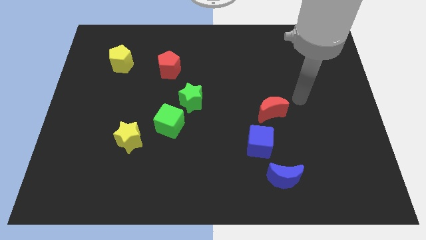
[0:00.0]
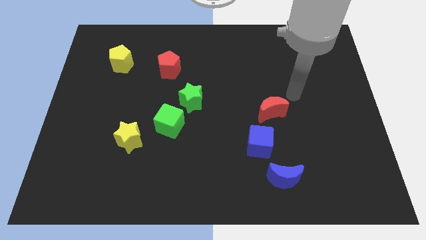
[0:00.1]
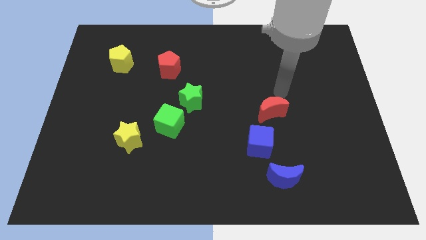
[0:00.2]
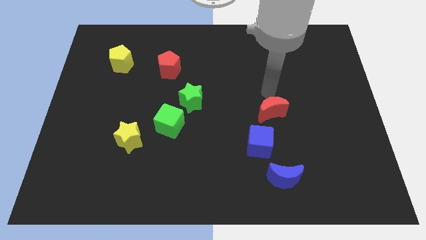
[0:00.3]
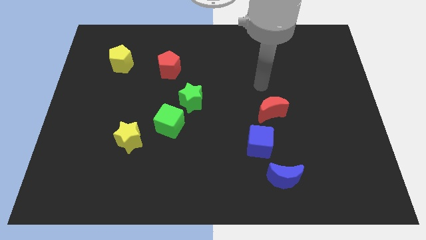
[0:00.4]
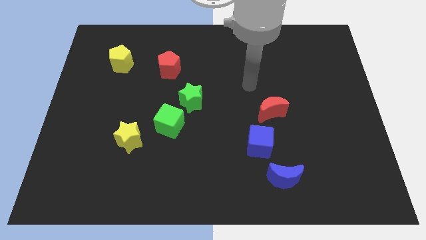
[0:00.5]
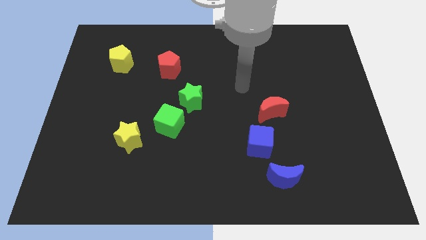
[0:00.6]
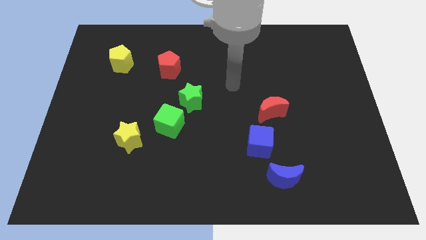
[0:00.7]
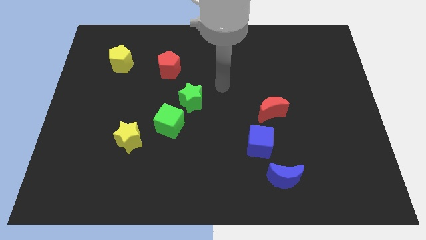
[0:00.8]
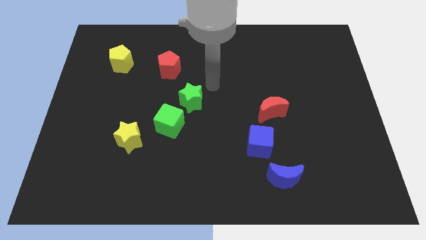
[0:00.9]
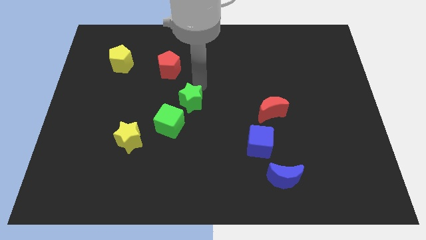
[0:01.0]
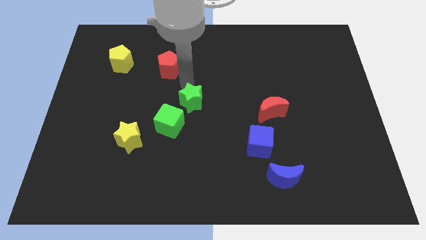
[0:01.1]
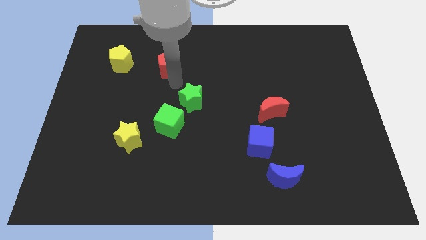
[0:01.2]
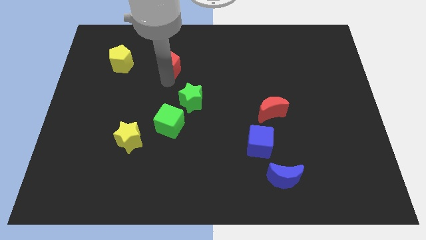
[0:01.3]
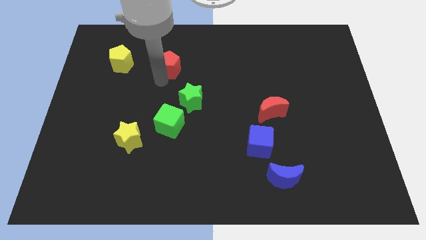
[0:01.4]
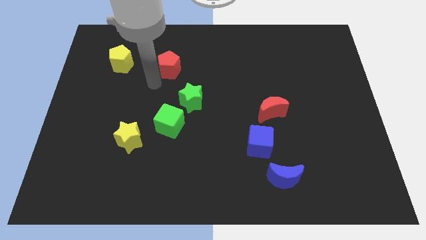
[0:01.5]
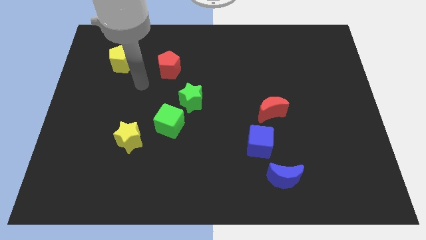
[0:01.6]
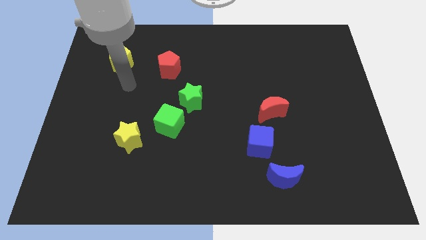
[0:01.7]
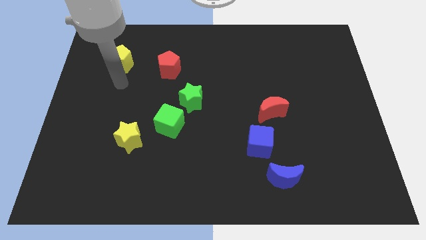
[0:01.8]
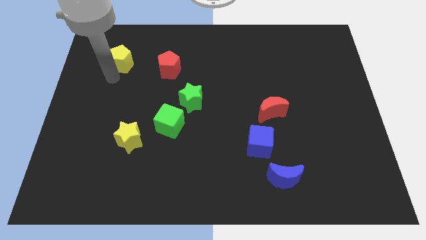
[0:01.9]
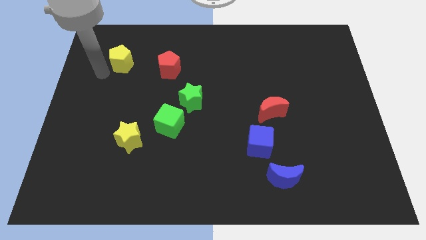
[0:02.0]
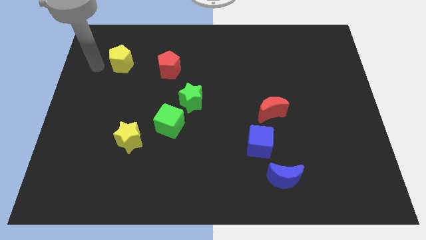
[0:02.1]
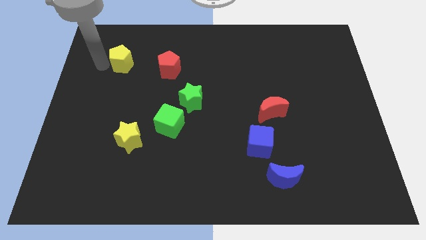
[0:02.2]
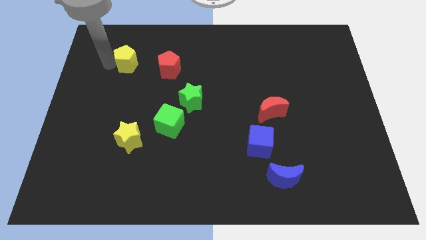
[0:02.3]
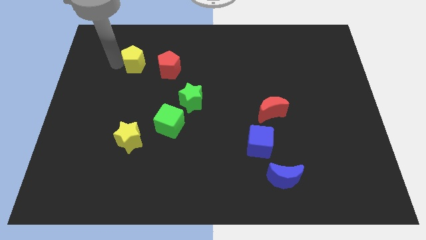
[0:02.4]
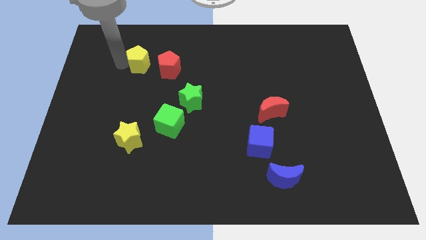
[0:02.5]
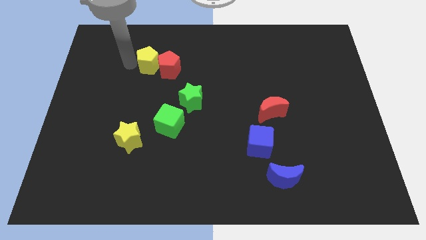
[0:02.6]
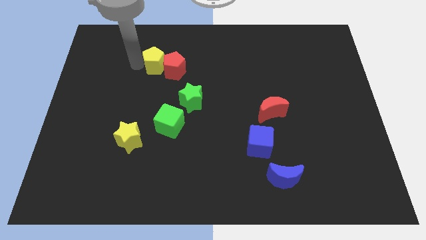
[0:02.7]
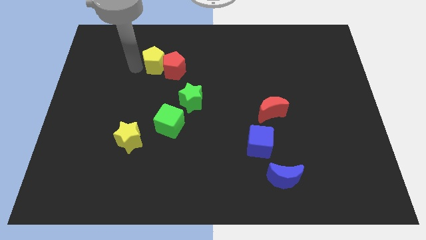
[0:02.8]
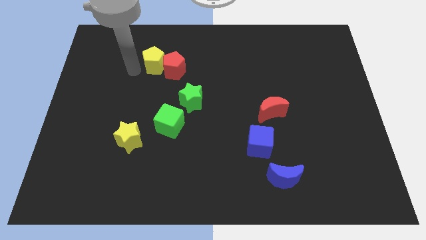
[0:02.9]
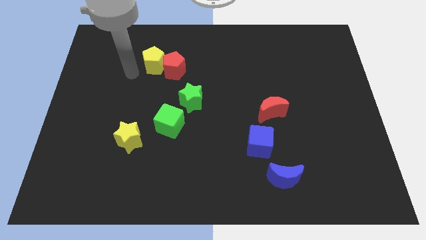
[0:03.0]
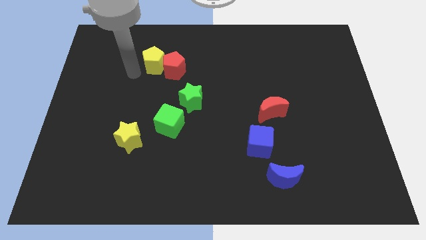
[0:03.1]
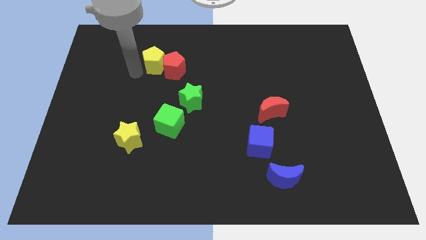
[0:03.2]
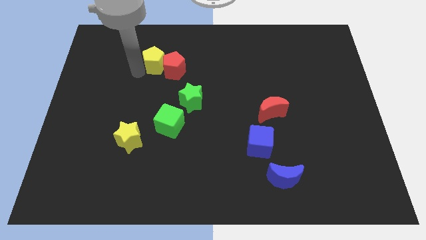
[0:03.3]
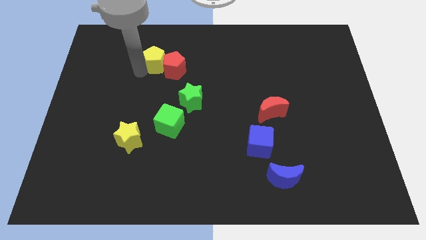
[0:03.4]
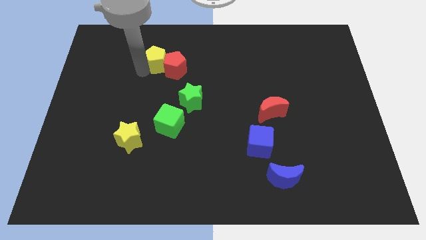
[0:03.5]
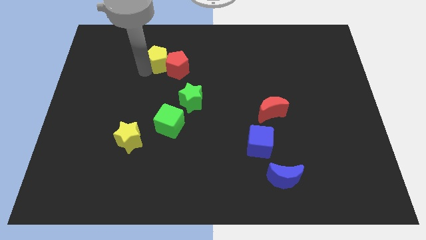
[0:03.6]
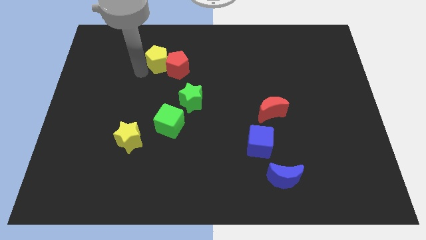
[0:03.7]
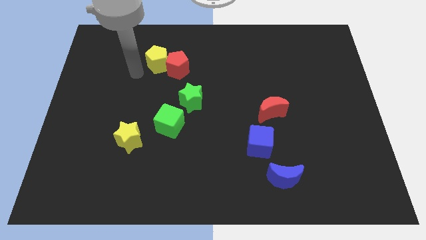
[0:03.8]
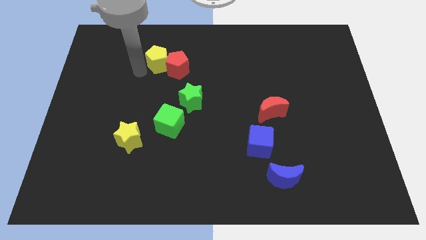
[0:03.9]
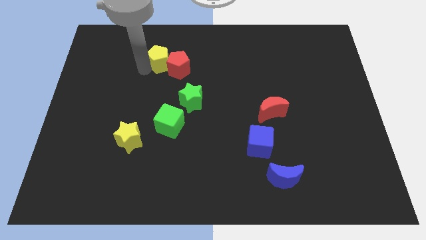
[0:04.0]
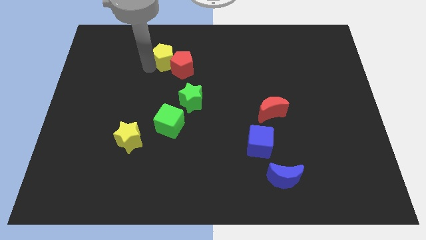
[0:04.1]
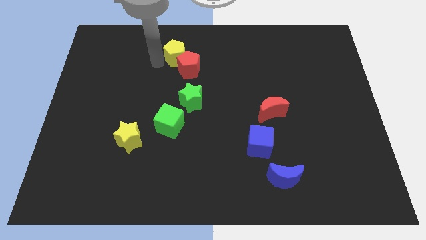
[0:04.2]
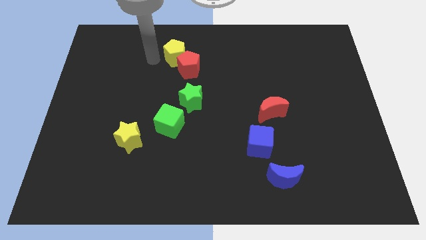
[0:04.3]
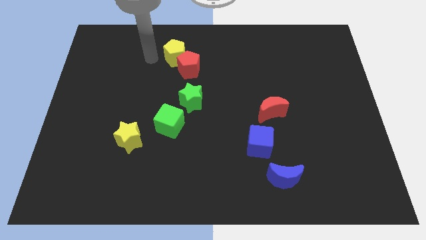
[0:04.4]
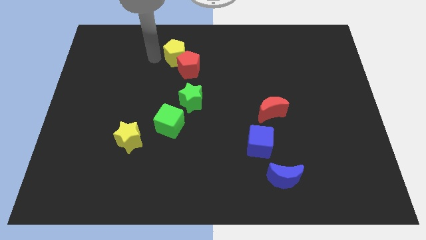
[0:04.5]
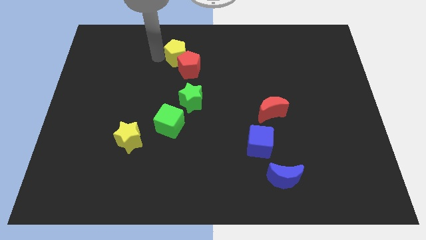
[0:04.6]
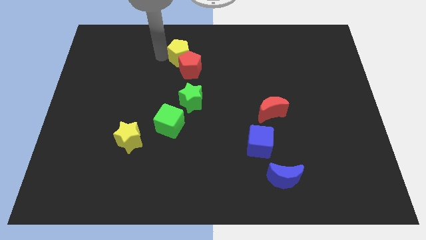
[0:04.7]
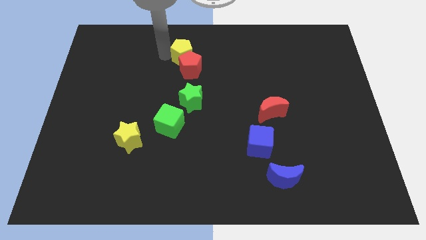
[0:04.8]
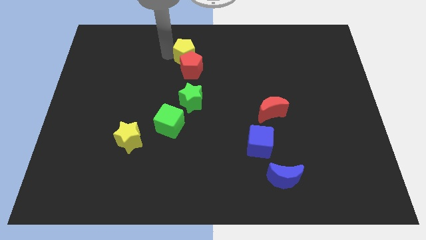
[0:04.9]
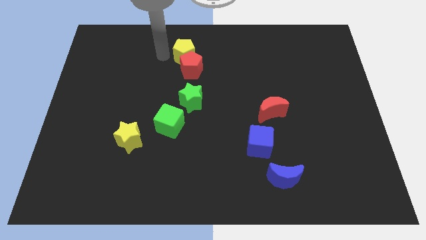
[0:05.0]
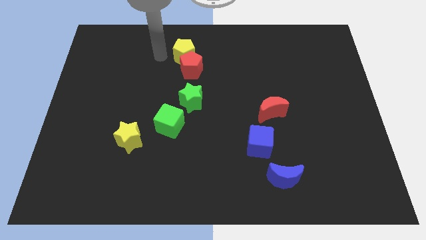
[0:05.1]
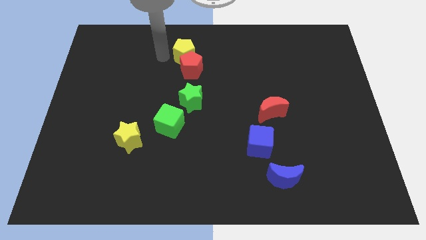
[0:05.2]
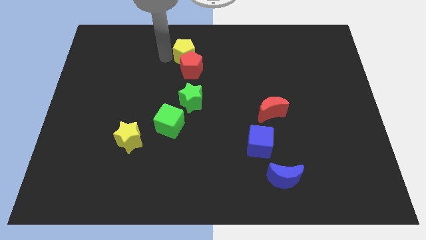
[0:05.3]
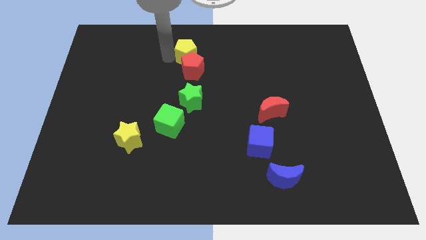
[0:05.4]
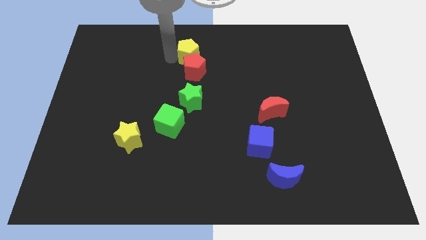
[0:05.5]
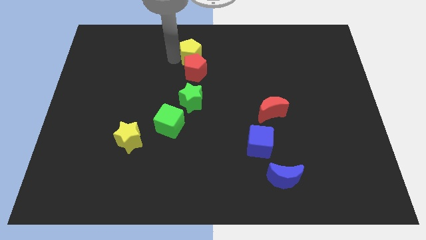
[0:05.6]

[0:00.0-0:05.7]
put the yellow pentagon to the top right side of the red pentagon

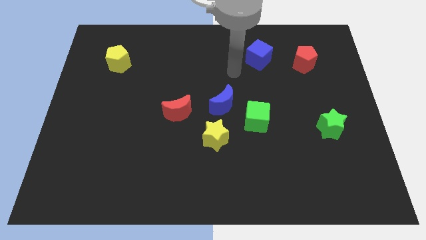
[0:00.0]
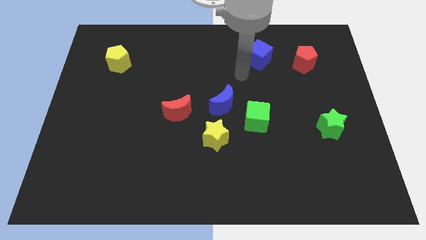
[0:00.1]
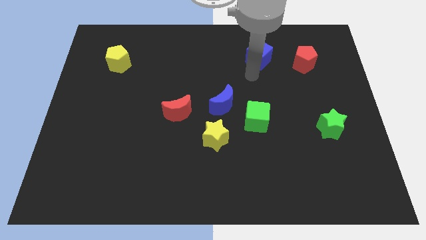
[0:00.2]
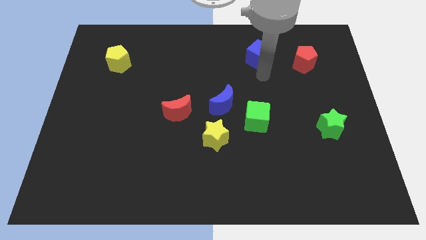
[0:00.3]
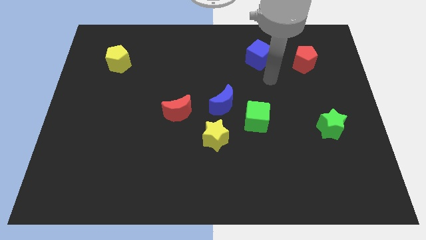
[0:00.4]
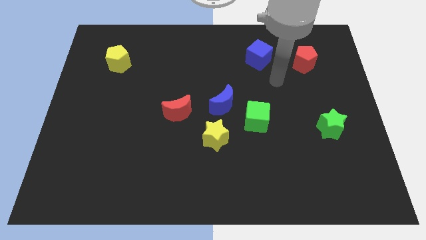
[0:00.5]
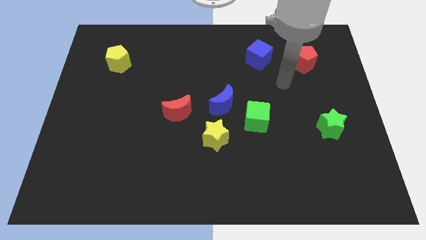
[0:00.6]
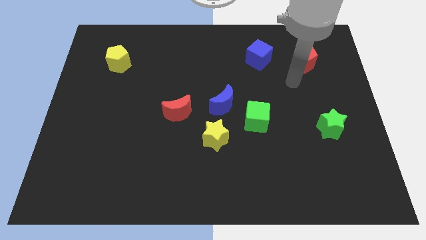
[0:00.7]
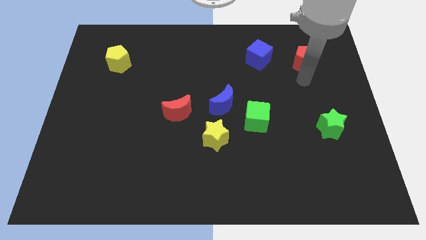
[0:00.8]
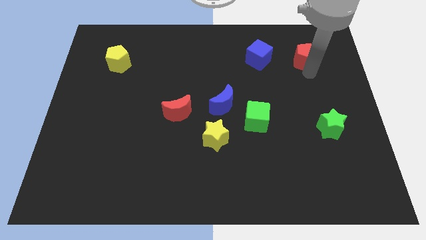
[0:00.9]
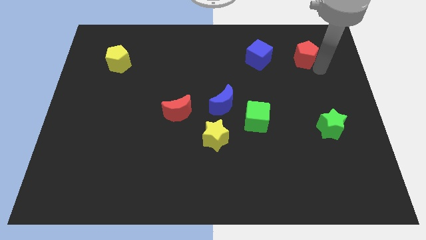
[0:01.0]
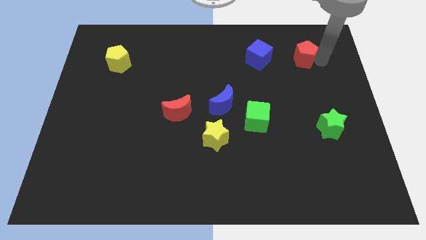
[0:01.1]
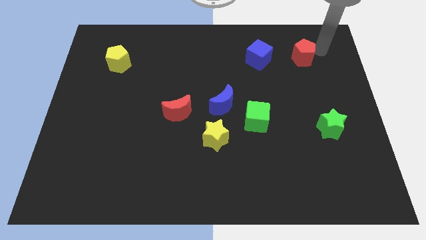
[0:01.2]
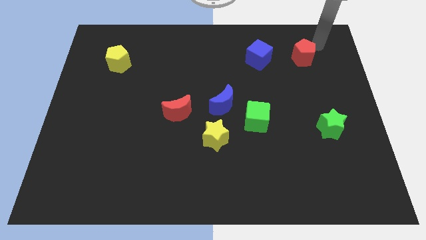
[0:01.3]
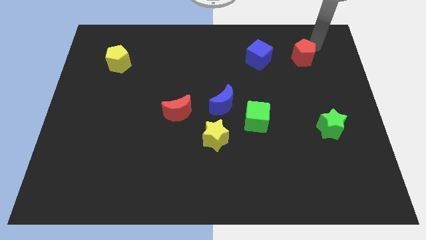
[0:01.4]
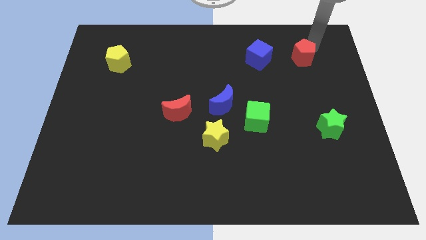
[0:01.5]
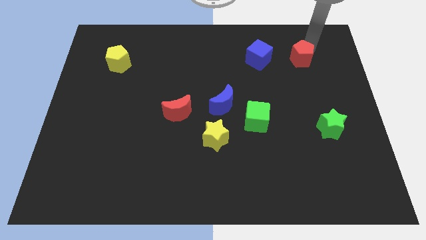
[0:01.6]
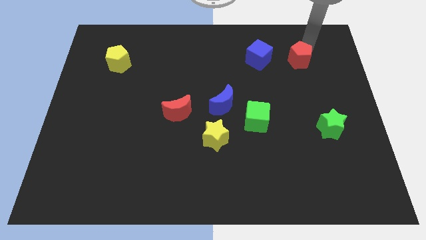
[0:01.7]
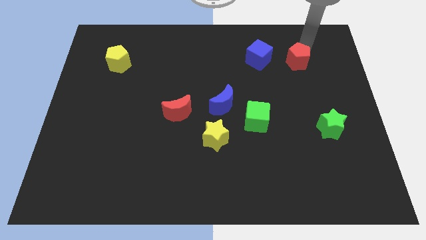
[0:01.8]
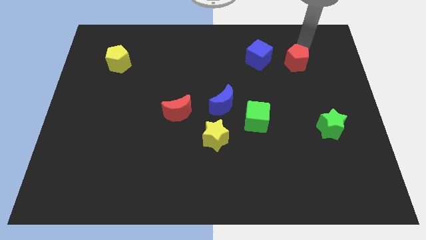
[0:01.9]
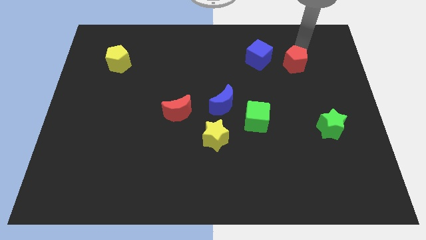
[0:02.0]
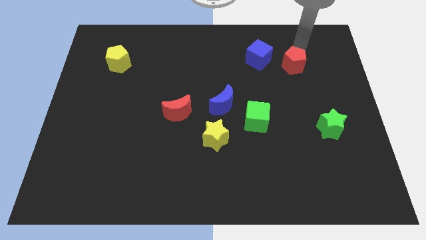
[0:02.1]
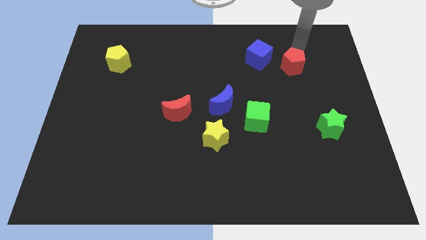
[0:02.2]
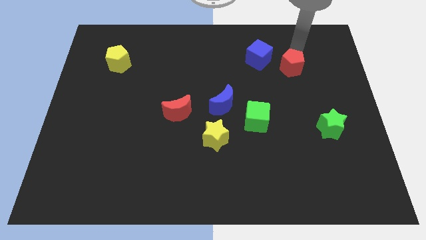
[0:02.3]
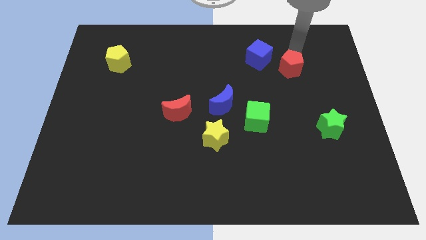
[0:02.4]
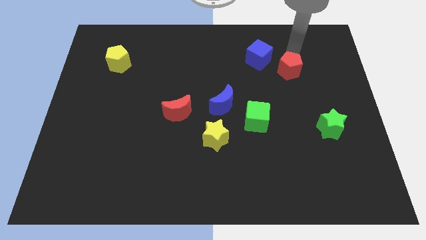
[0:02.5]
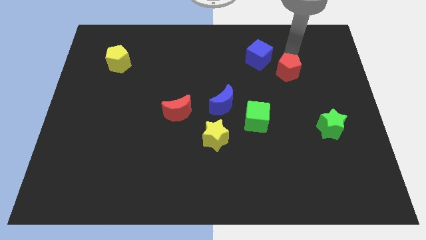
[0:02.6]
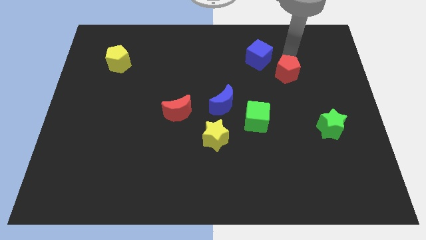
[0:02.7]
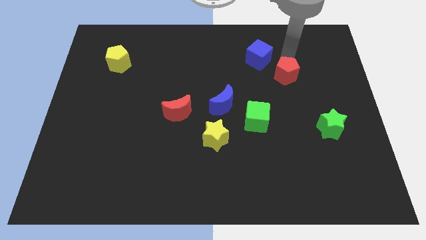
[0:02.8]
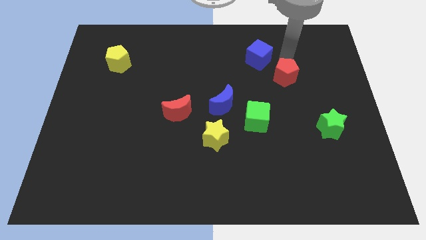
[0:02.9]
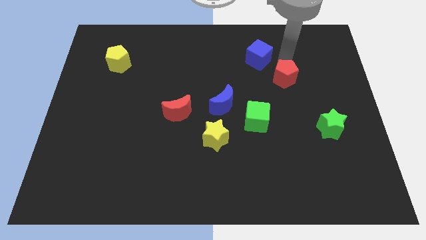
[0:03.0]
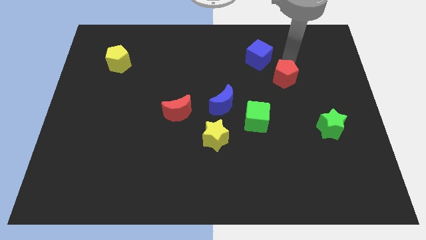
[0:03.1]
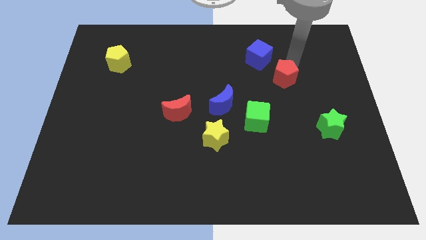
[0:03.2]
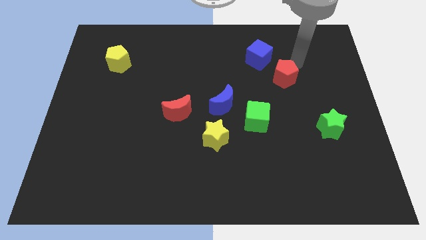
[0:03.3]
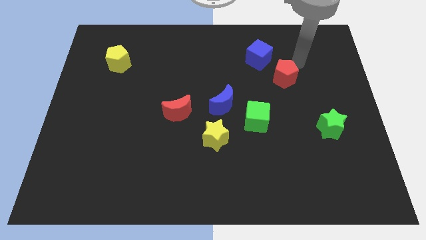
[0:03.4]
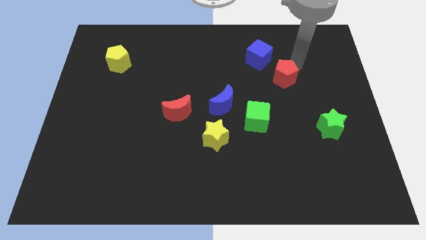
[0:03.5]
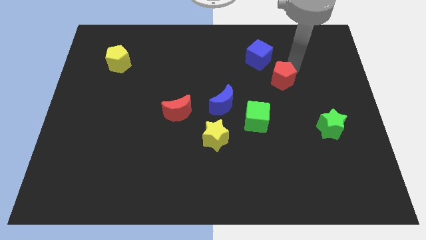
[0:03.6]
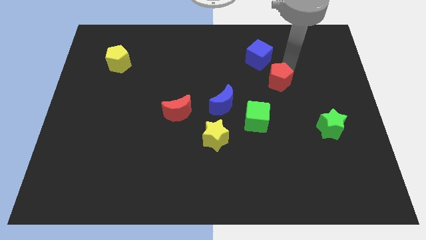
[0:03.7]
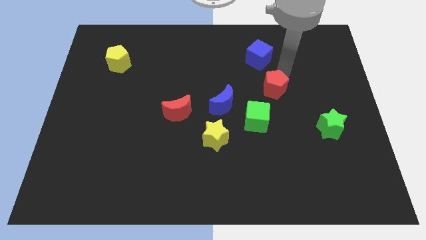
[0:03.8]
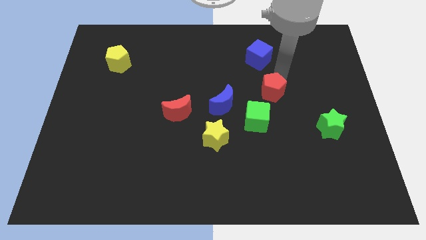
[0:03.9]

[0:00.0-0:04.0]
push the red pentagon to the right side of the blue moon
